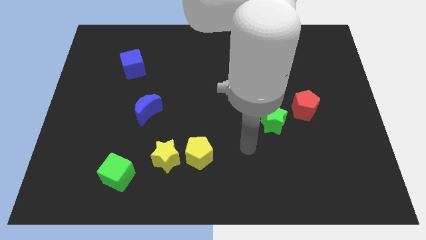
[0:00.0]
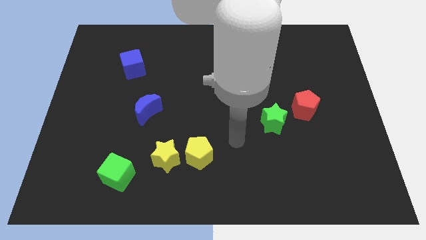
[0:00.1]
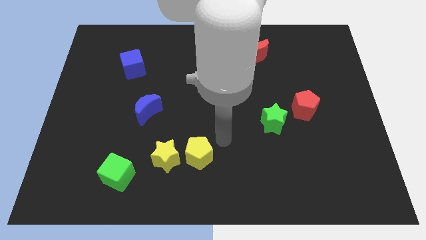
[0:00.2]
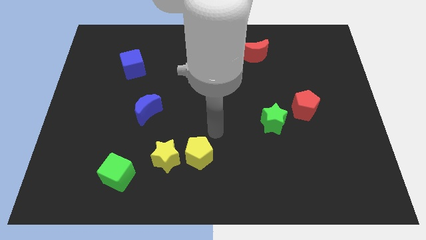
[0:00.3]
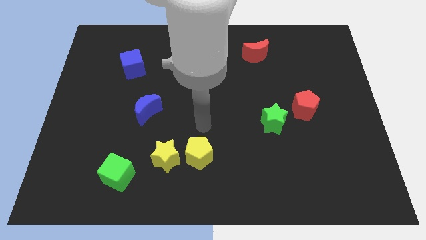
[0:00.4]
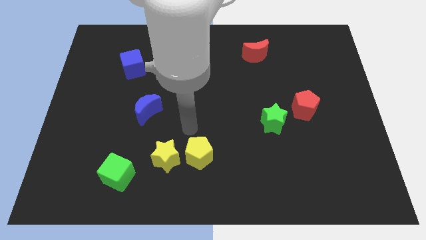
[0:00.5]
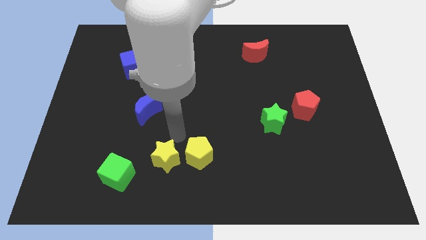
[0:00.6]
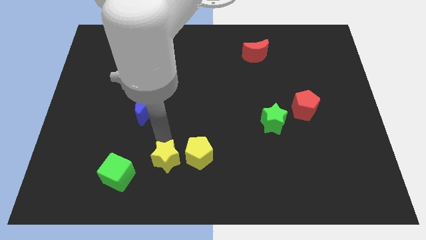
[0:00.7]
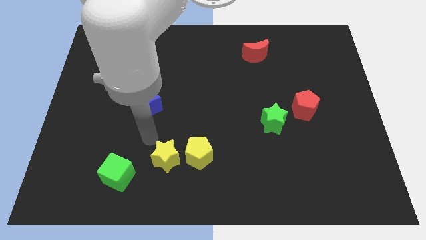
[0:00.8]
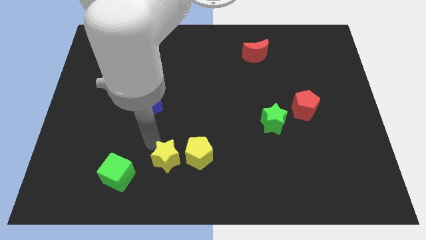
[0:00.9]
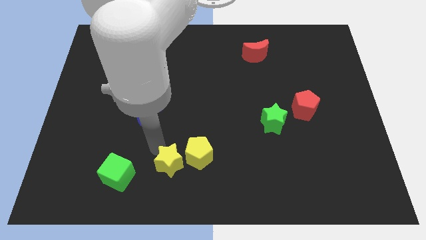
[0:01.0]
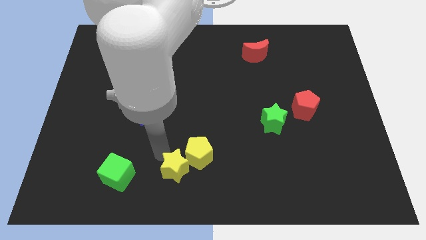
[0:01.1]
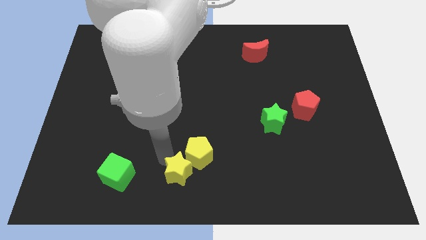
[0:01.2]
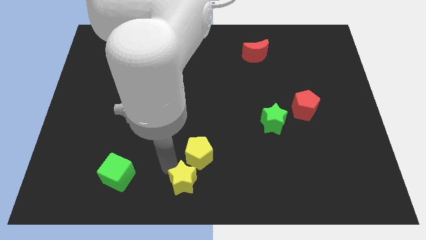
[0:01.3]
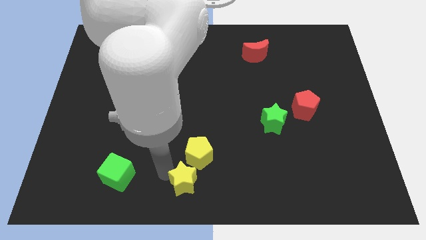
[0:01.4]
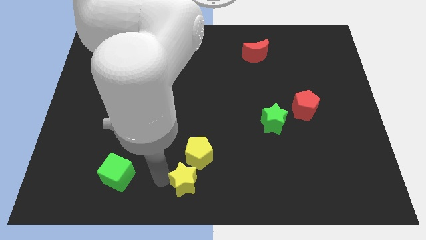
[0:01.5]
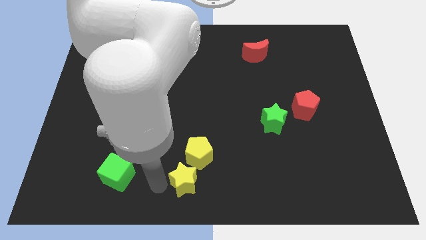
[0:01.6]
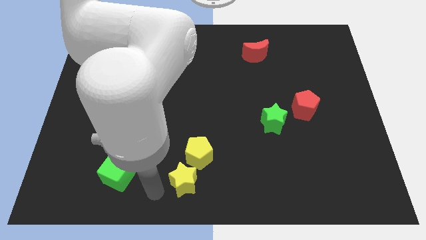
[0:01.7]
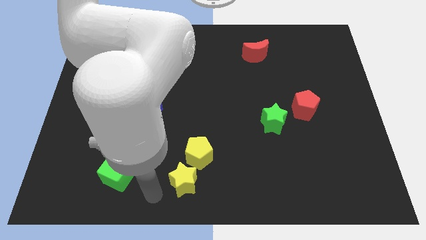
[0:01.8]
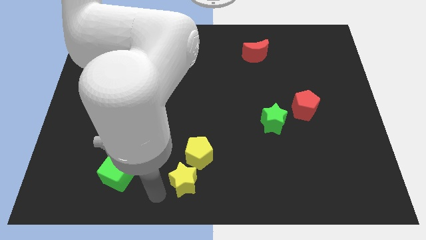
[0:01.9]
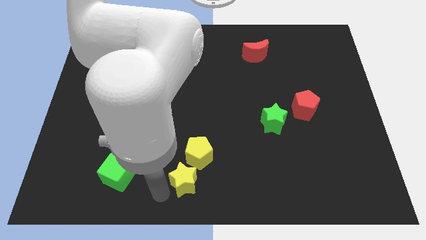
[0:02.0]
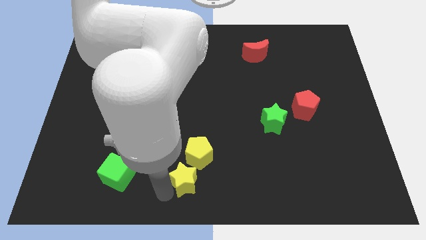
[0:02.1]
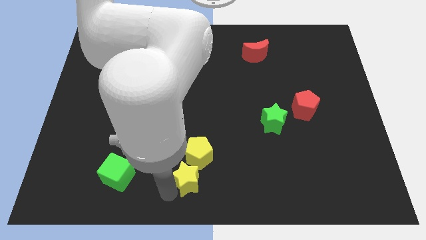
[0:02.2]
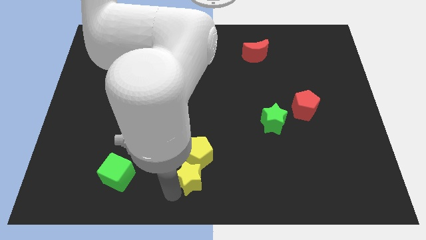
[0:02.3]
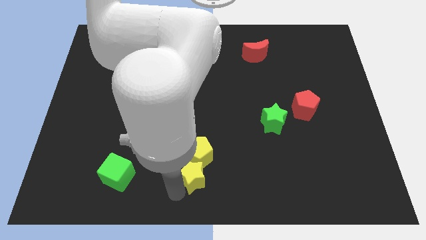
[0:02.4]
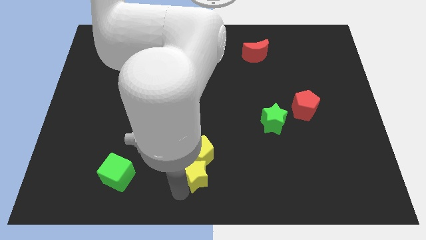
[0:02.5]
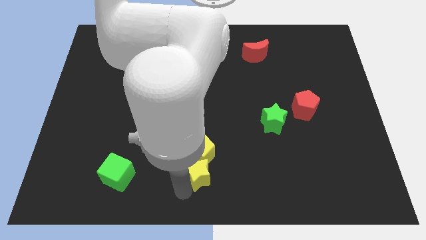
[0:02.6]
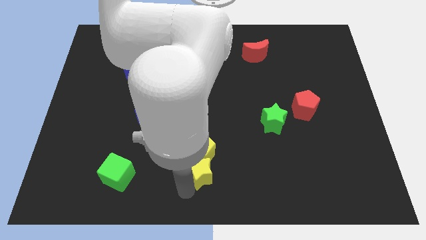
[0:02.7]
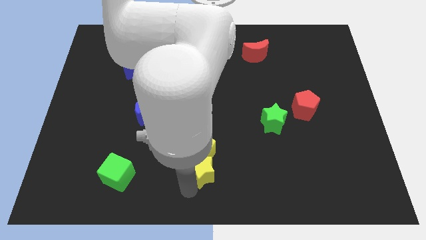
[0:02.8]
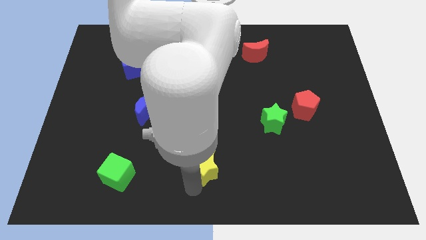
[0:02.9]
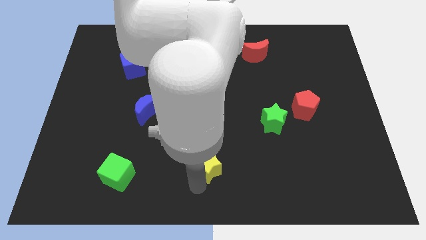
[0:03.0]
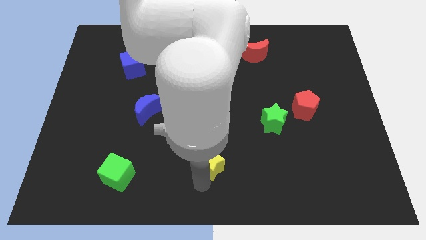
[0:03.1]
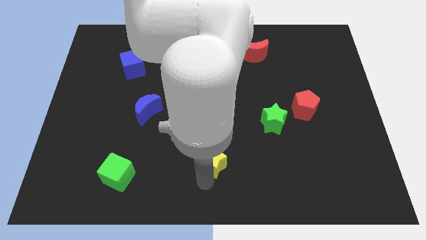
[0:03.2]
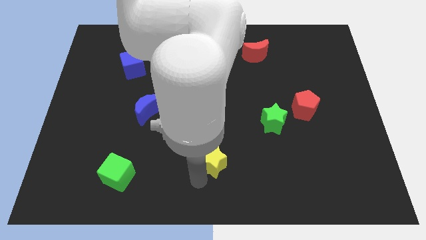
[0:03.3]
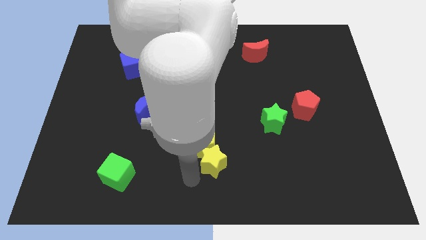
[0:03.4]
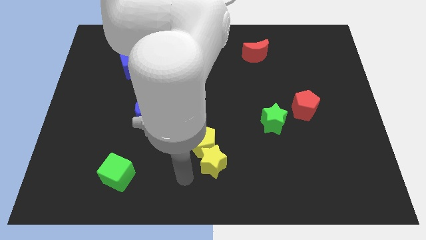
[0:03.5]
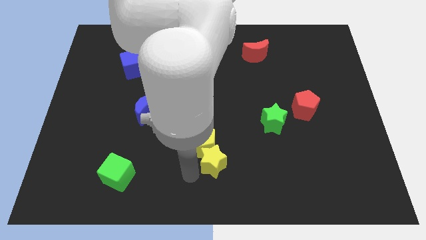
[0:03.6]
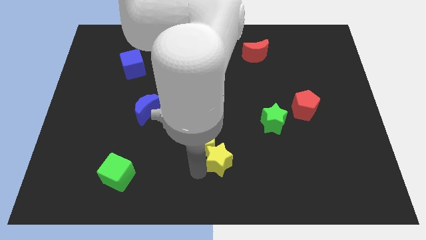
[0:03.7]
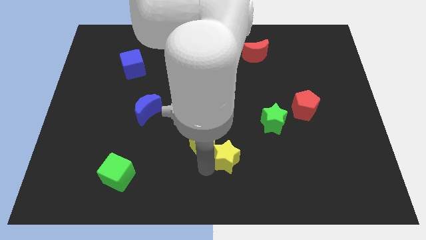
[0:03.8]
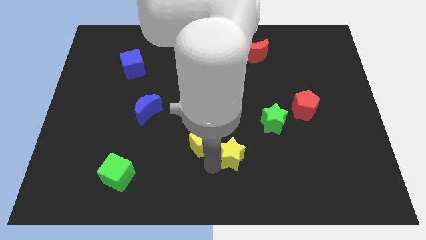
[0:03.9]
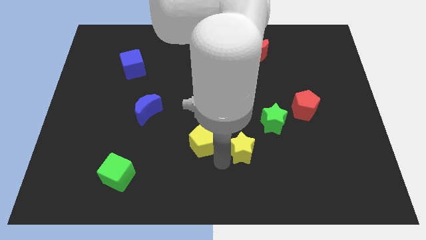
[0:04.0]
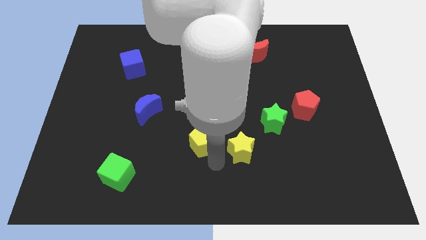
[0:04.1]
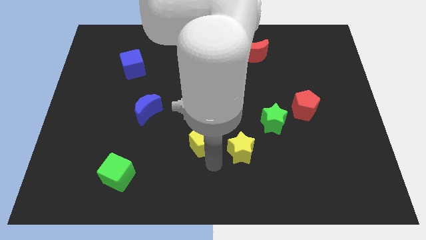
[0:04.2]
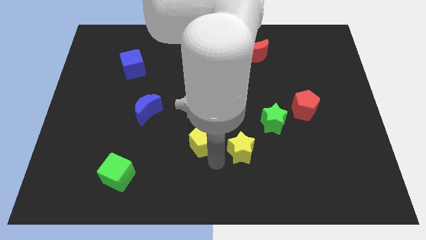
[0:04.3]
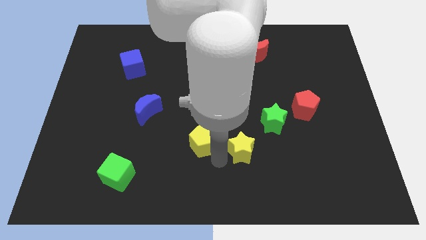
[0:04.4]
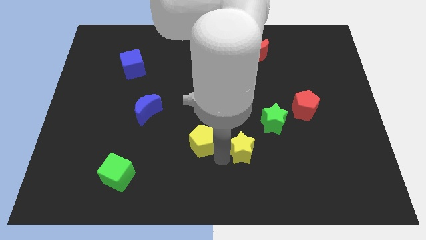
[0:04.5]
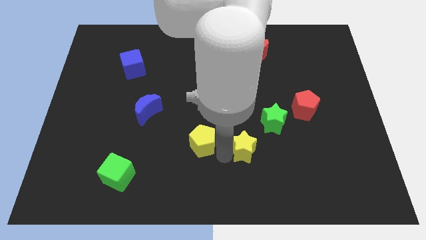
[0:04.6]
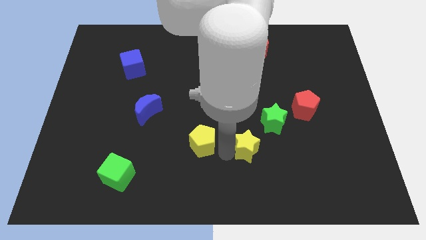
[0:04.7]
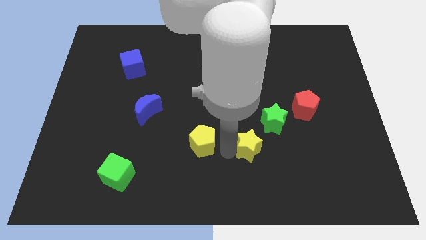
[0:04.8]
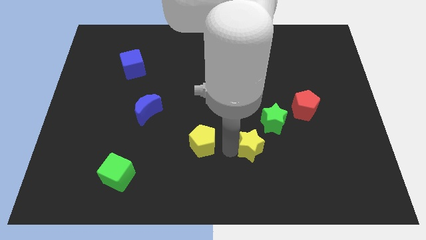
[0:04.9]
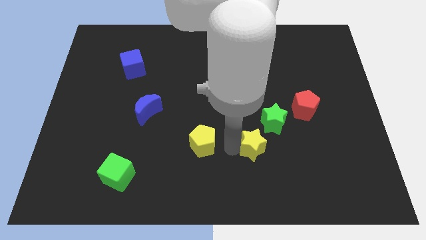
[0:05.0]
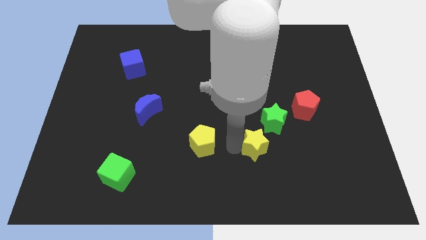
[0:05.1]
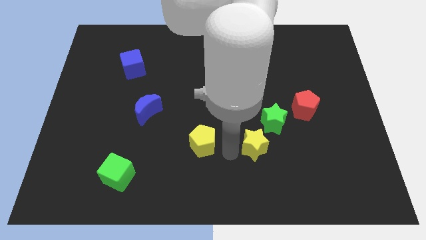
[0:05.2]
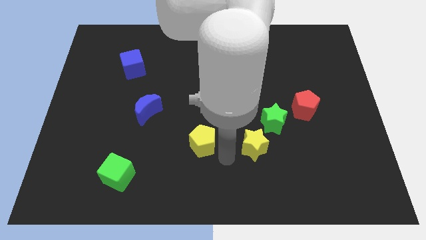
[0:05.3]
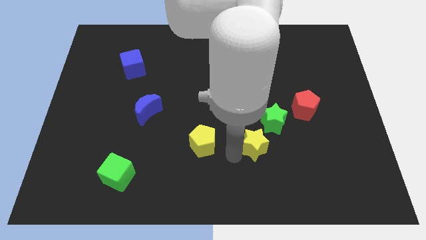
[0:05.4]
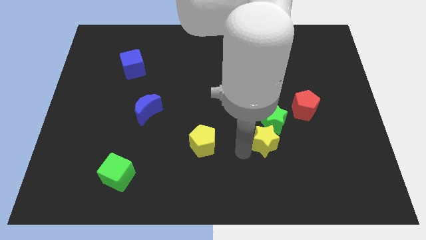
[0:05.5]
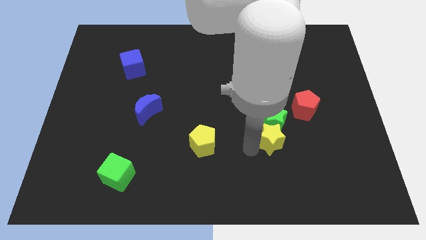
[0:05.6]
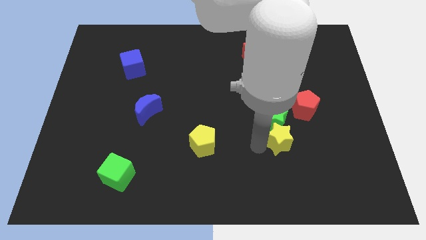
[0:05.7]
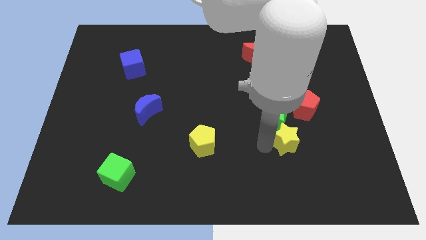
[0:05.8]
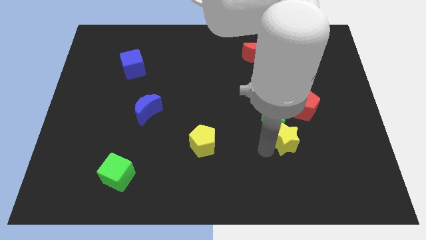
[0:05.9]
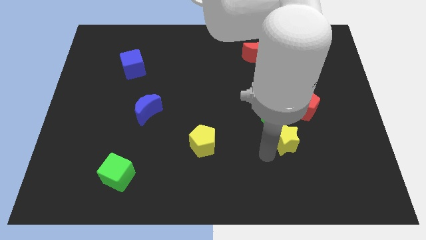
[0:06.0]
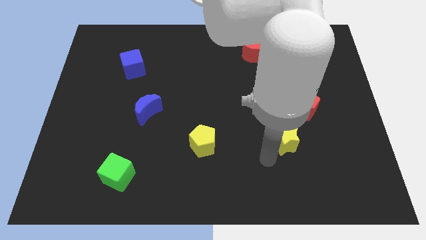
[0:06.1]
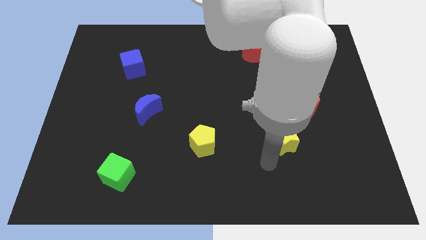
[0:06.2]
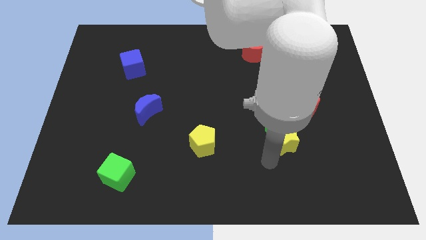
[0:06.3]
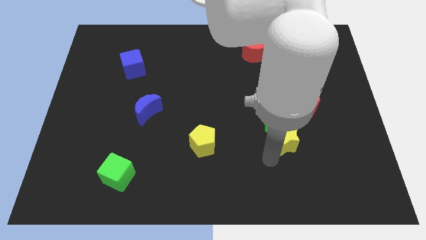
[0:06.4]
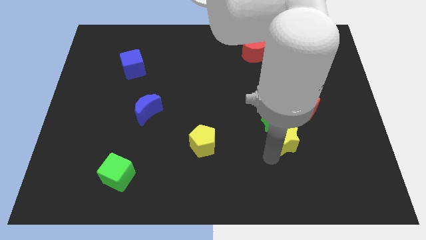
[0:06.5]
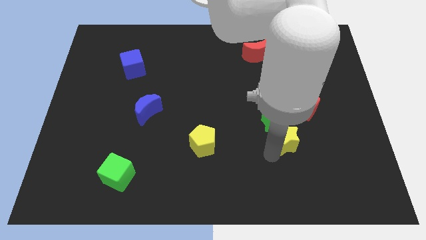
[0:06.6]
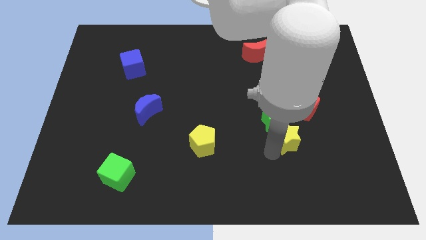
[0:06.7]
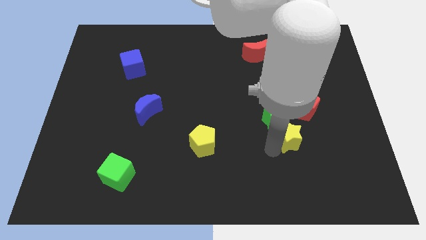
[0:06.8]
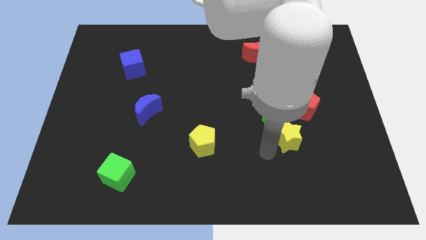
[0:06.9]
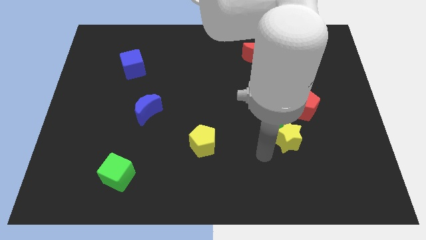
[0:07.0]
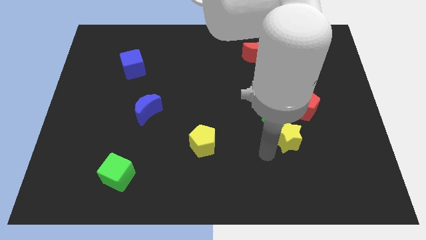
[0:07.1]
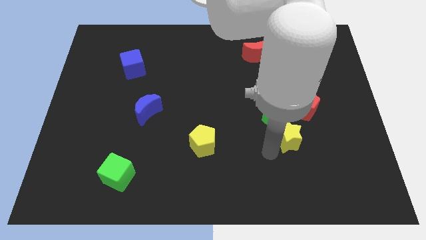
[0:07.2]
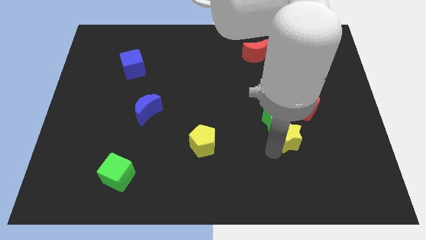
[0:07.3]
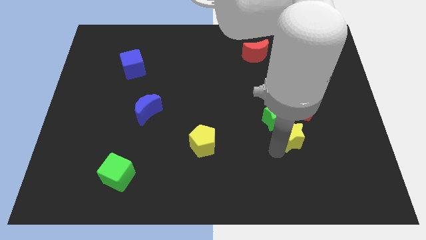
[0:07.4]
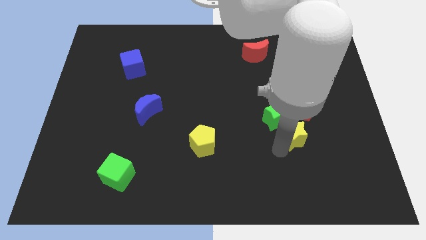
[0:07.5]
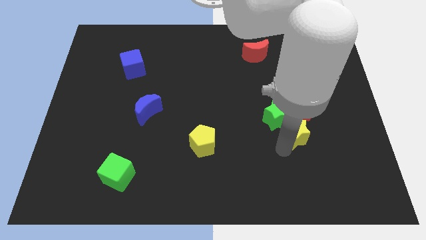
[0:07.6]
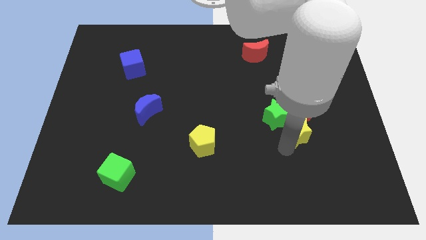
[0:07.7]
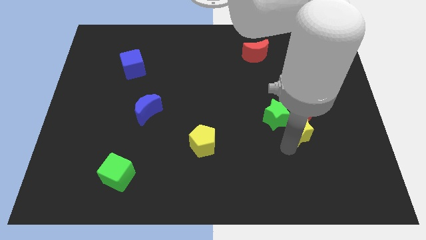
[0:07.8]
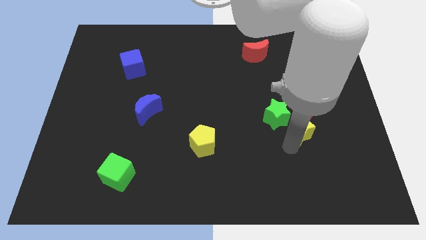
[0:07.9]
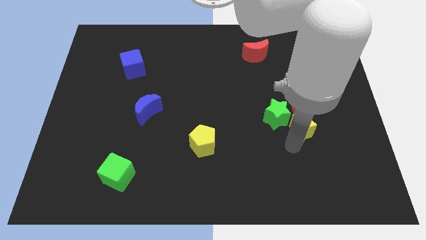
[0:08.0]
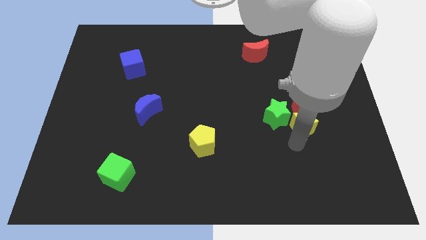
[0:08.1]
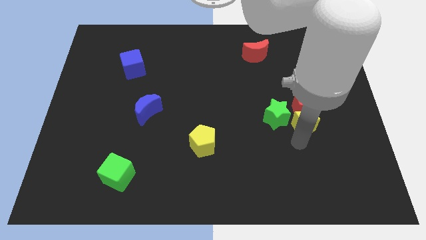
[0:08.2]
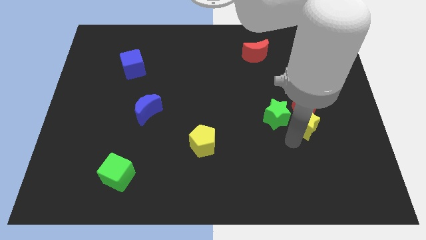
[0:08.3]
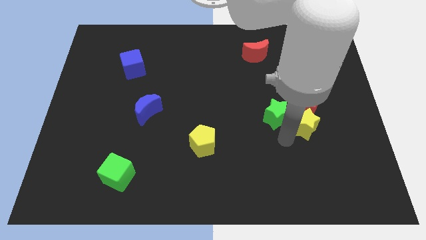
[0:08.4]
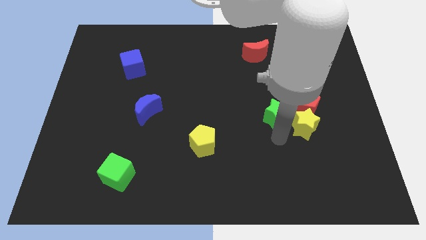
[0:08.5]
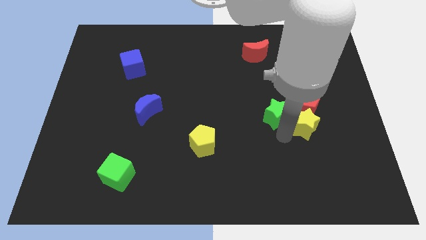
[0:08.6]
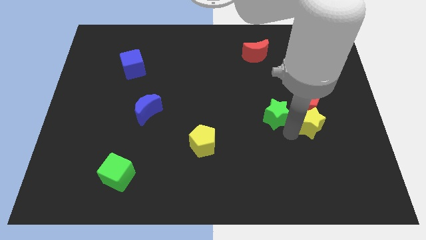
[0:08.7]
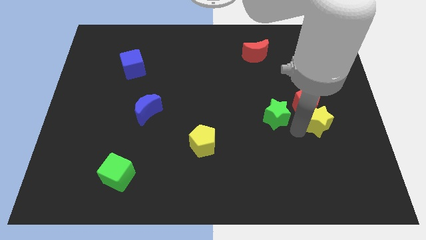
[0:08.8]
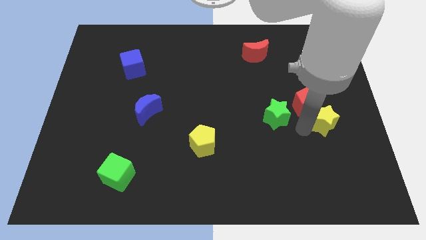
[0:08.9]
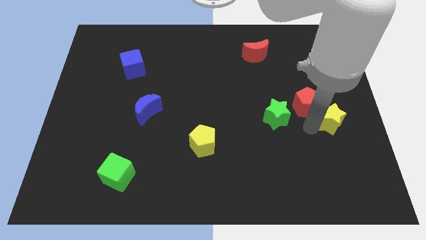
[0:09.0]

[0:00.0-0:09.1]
put the yellow star to the right side of the board
